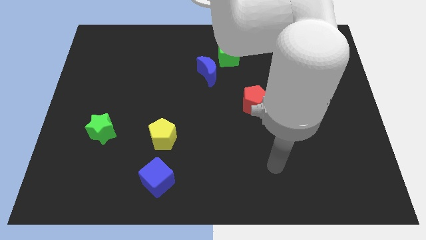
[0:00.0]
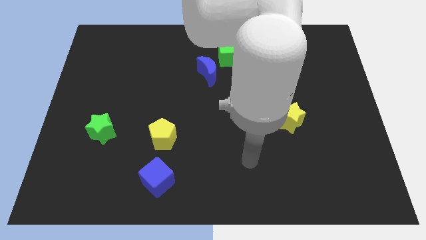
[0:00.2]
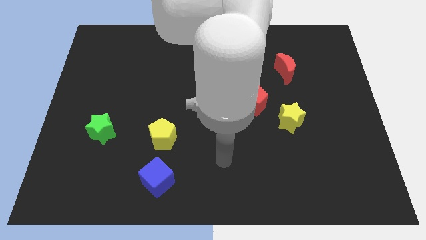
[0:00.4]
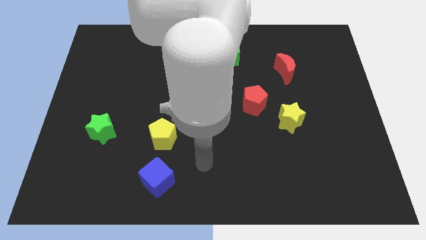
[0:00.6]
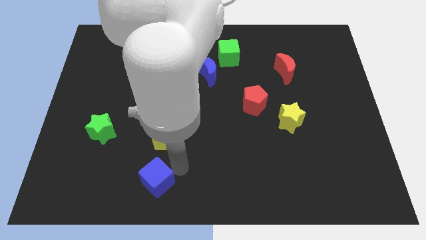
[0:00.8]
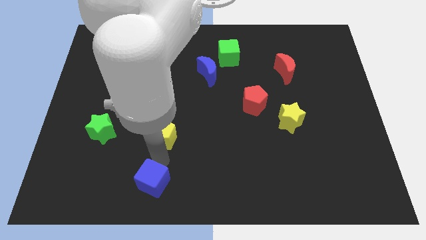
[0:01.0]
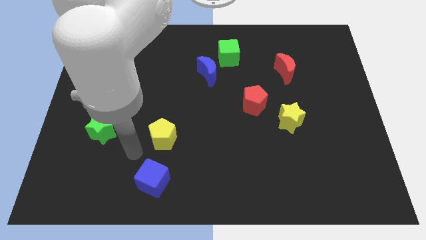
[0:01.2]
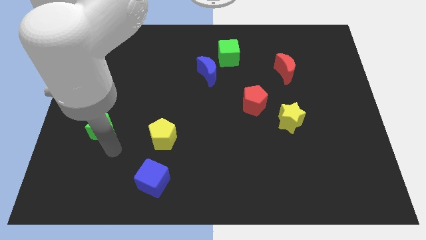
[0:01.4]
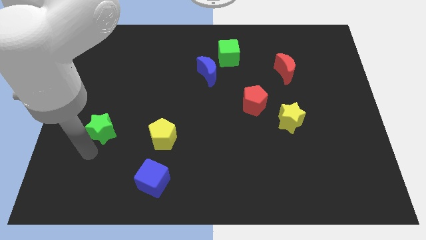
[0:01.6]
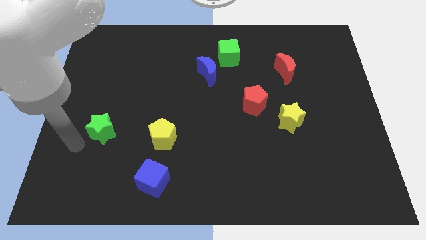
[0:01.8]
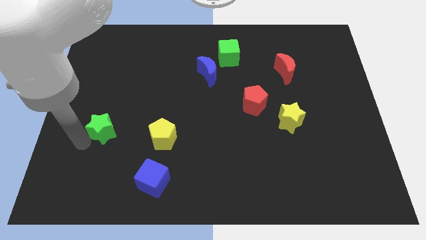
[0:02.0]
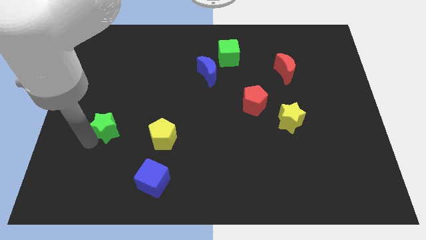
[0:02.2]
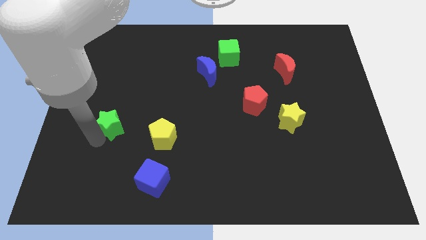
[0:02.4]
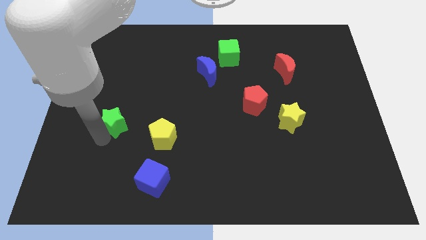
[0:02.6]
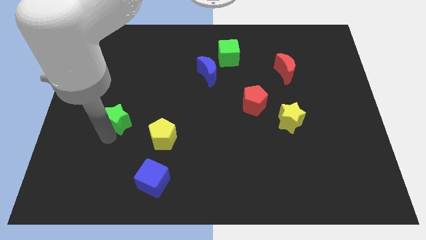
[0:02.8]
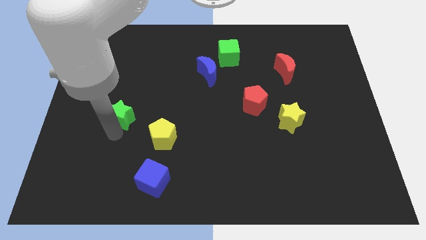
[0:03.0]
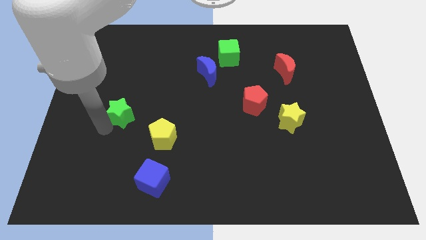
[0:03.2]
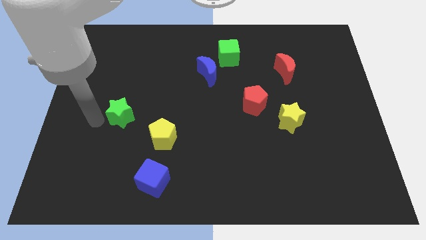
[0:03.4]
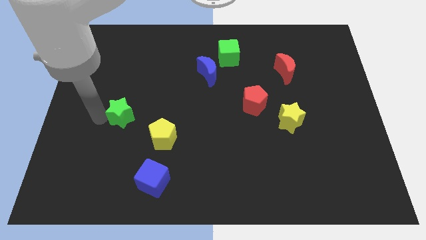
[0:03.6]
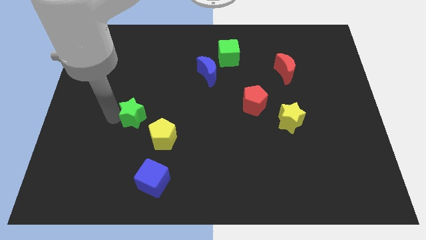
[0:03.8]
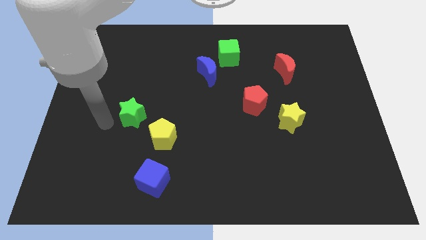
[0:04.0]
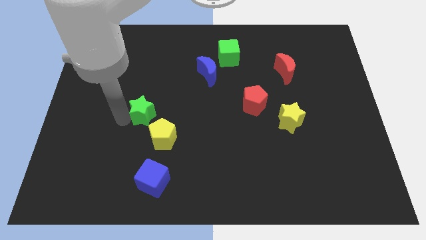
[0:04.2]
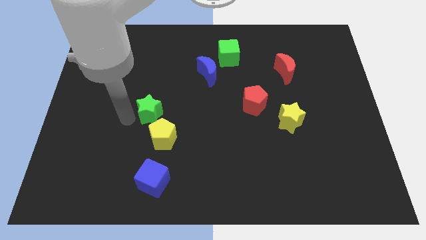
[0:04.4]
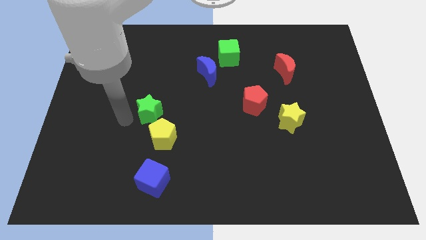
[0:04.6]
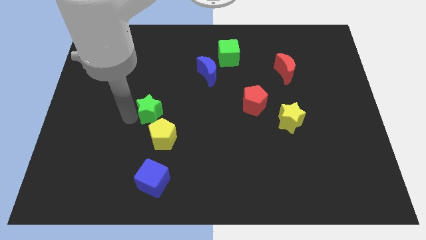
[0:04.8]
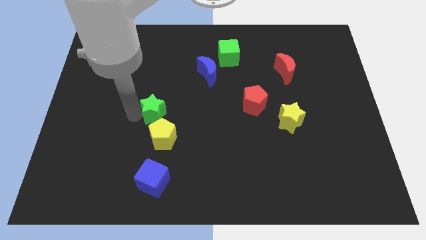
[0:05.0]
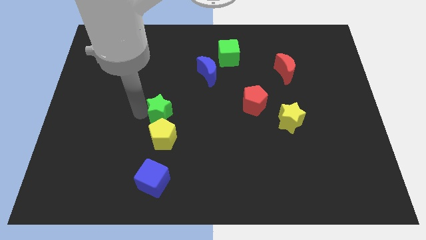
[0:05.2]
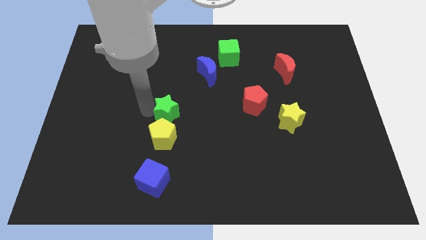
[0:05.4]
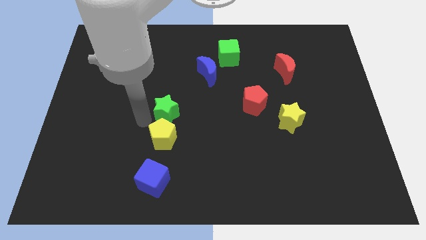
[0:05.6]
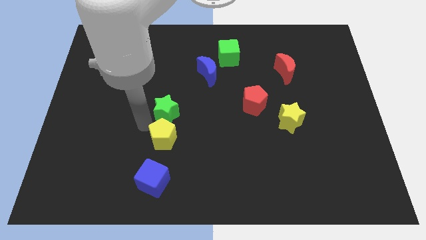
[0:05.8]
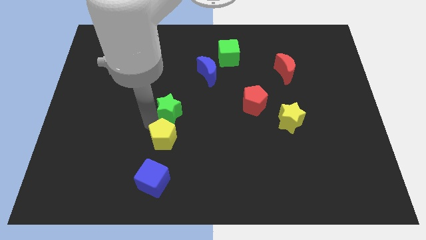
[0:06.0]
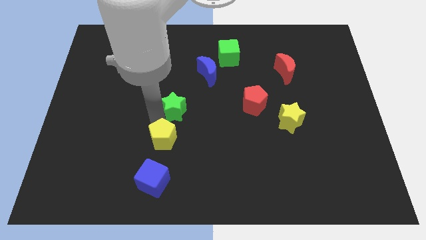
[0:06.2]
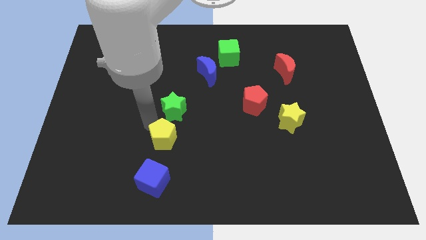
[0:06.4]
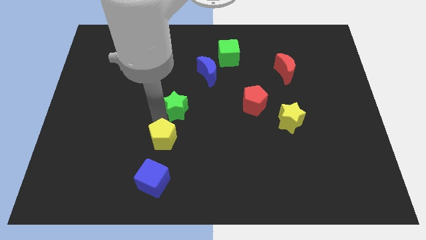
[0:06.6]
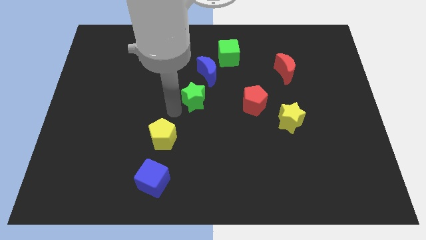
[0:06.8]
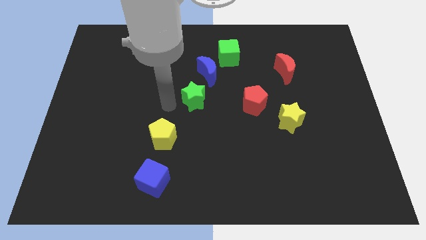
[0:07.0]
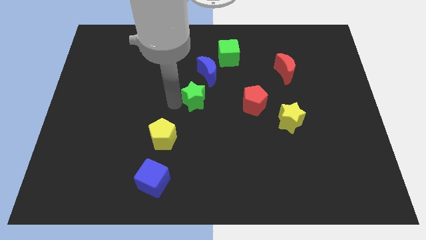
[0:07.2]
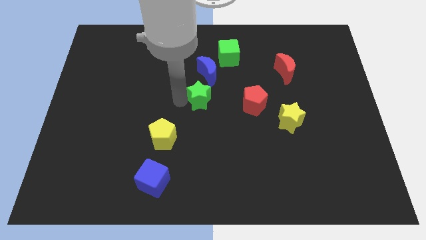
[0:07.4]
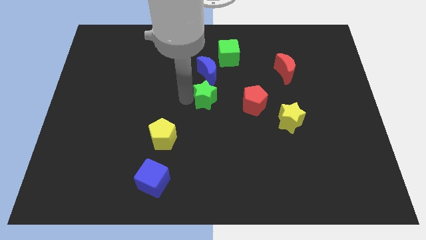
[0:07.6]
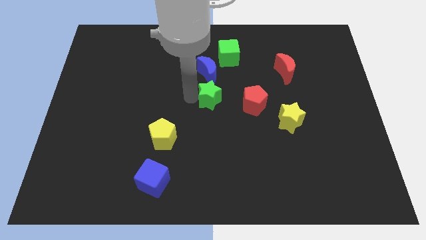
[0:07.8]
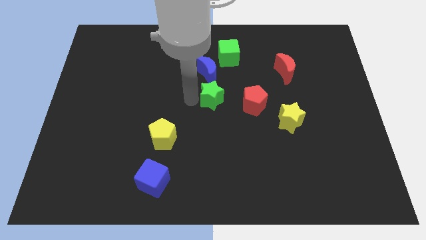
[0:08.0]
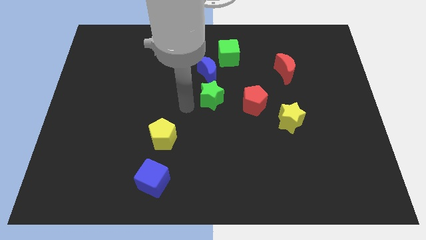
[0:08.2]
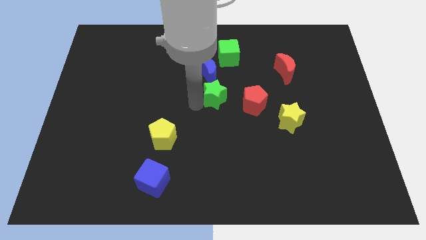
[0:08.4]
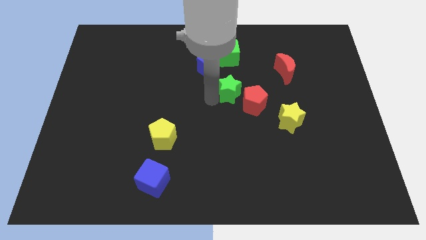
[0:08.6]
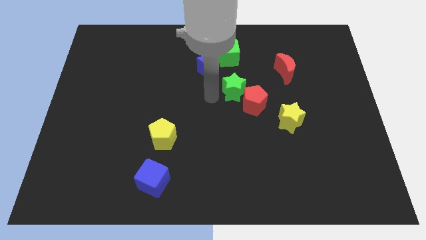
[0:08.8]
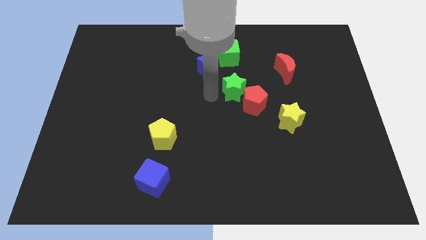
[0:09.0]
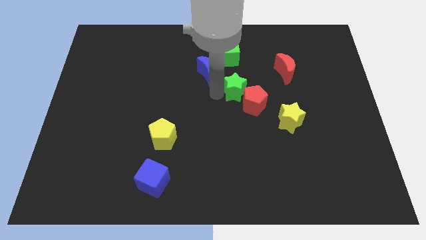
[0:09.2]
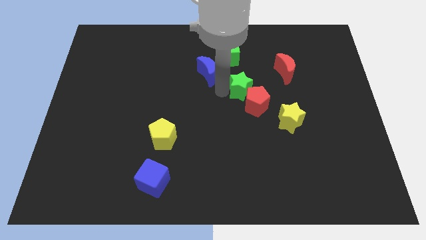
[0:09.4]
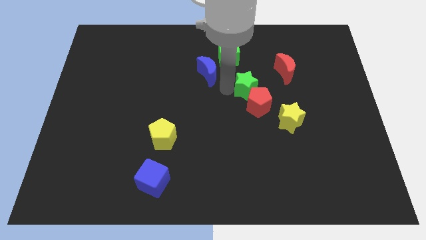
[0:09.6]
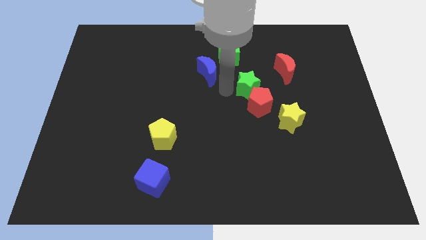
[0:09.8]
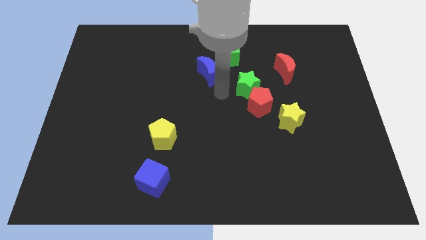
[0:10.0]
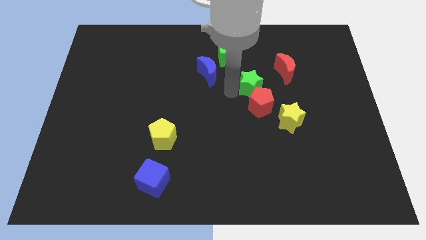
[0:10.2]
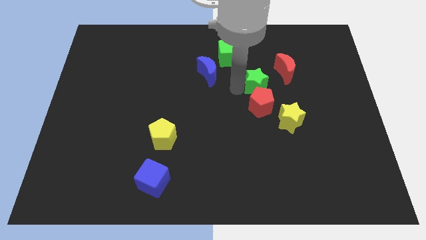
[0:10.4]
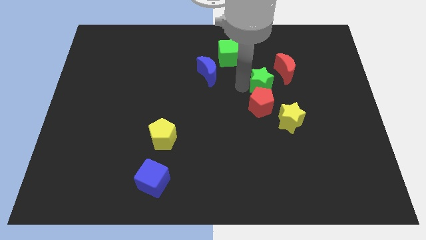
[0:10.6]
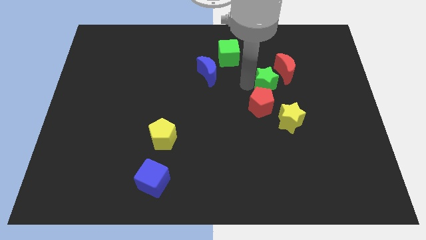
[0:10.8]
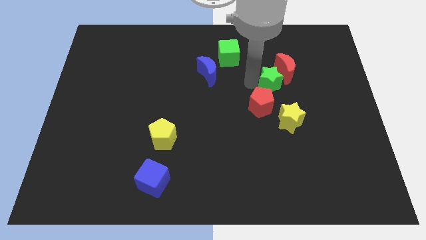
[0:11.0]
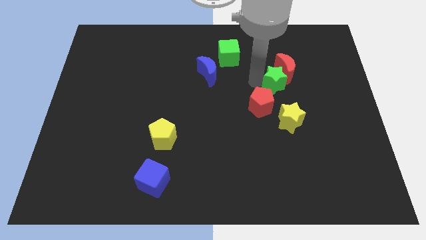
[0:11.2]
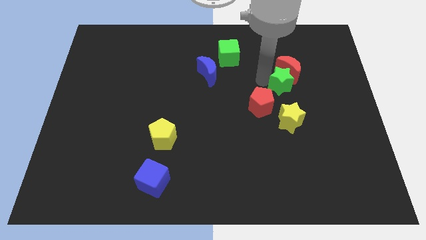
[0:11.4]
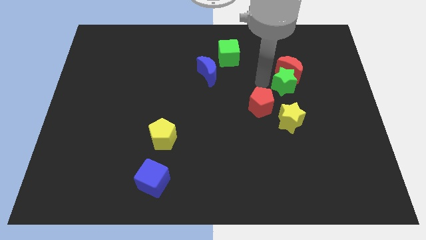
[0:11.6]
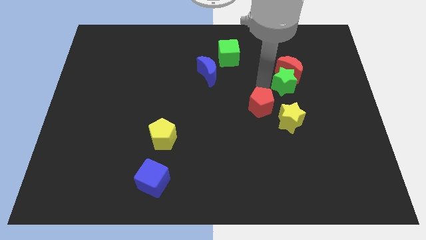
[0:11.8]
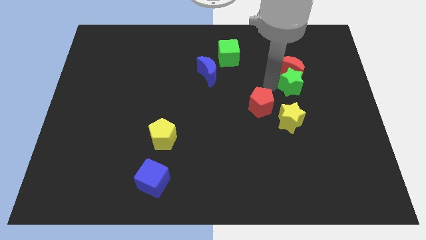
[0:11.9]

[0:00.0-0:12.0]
slide the green star to the bottom right of the red moon
